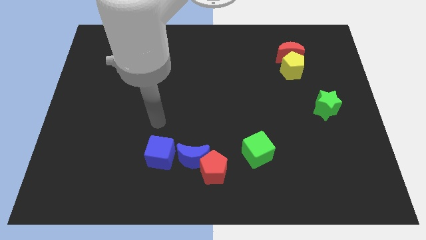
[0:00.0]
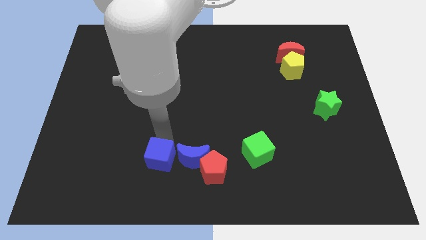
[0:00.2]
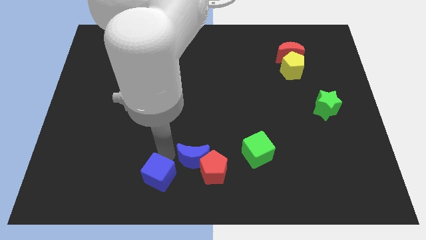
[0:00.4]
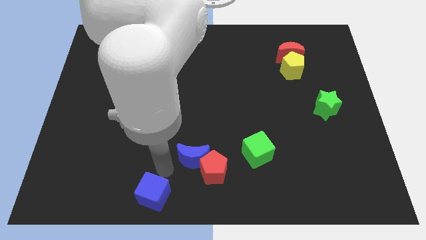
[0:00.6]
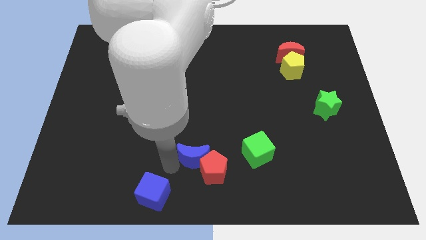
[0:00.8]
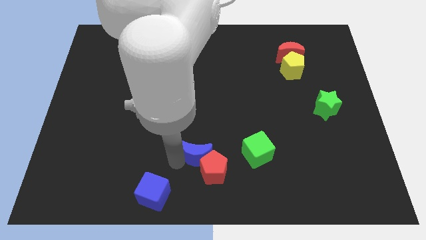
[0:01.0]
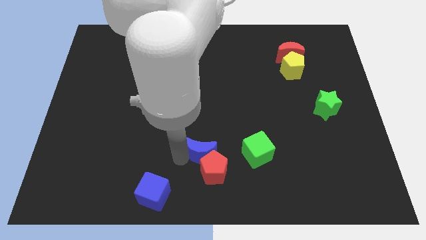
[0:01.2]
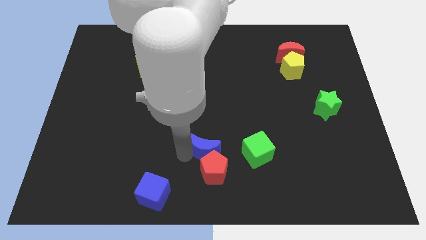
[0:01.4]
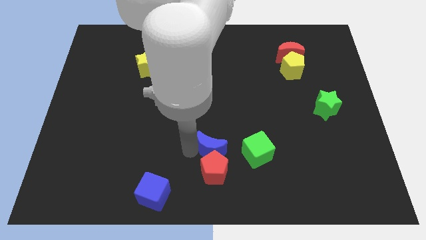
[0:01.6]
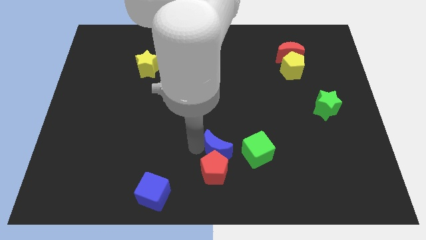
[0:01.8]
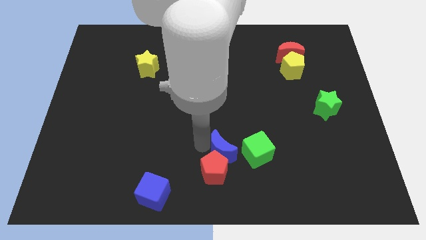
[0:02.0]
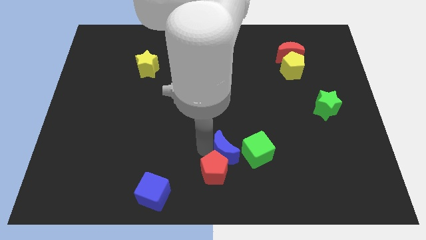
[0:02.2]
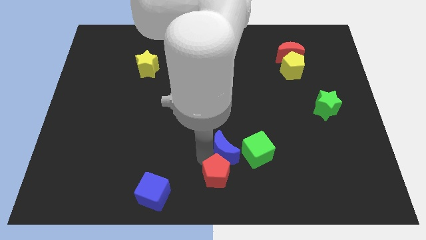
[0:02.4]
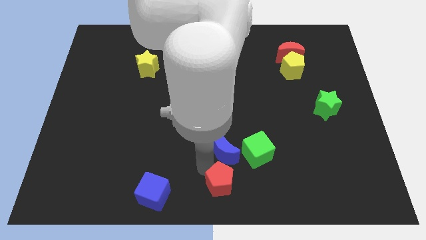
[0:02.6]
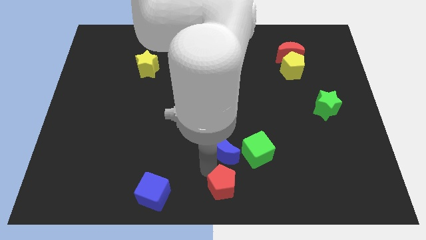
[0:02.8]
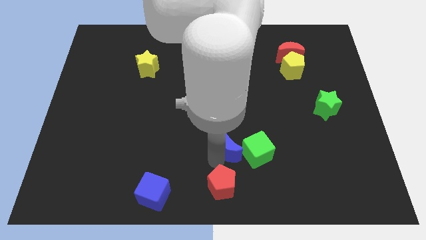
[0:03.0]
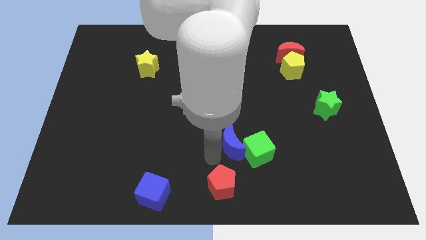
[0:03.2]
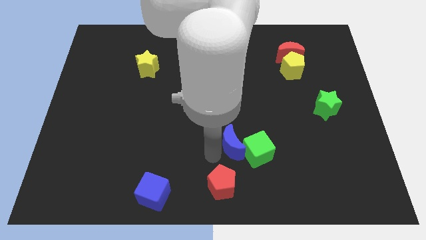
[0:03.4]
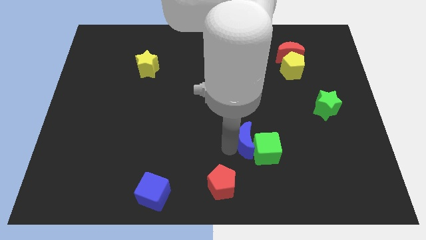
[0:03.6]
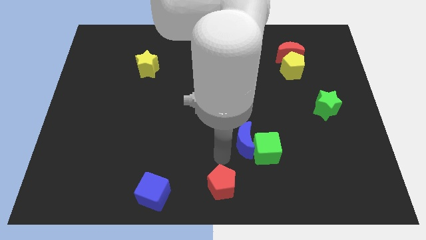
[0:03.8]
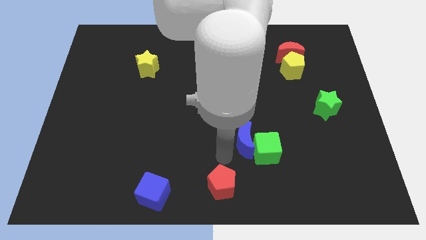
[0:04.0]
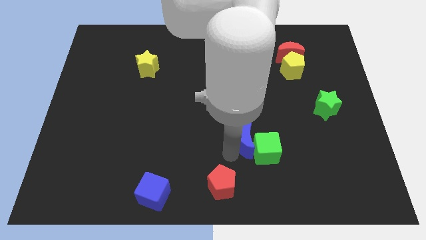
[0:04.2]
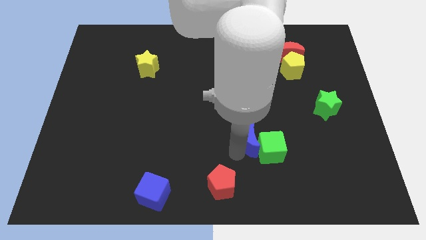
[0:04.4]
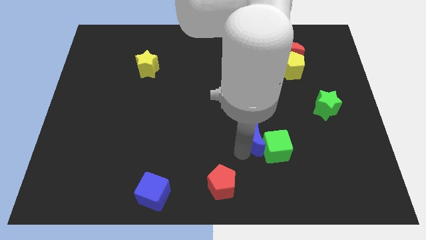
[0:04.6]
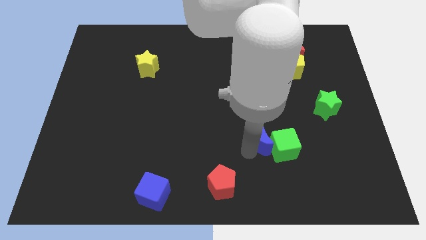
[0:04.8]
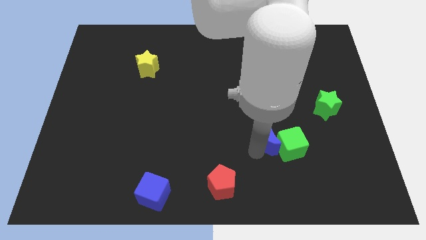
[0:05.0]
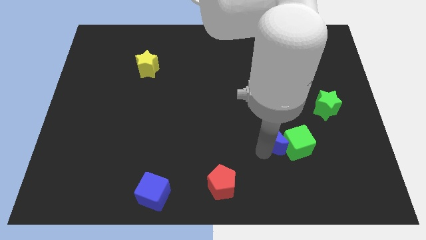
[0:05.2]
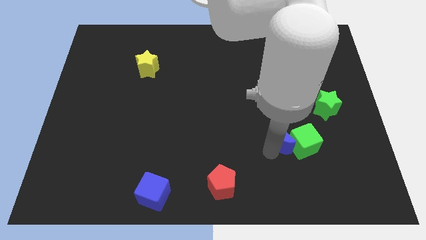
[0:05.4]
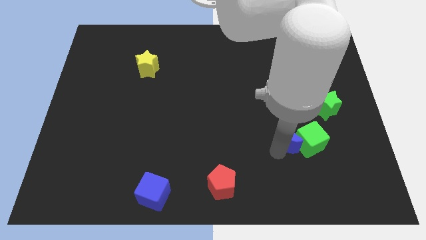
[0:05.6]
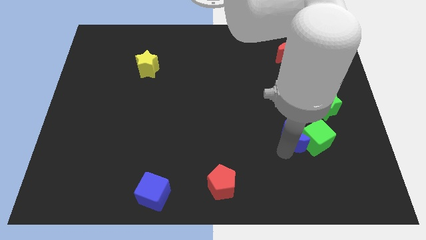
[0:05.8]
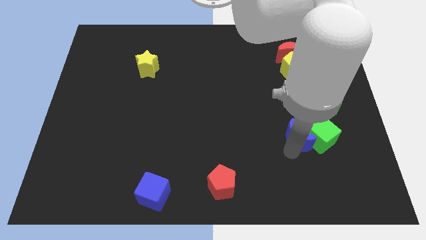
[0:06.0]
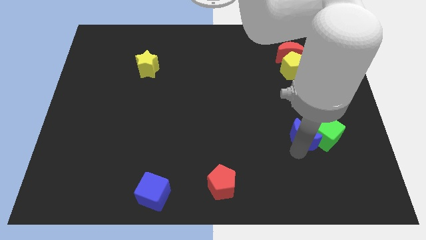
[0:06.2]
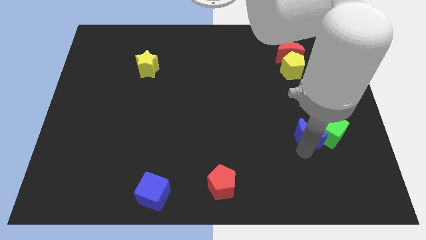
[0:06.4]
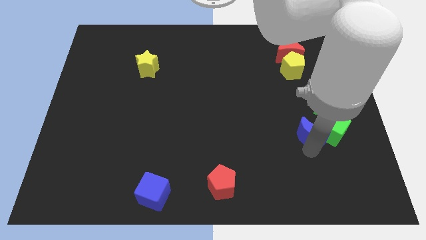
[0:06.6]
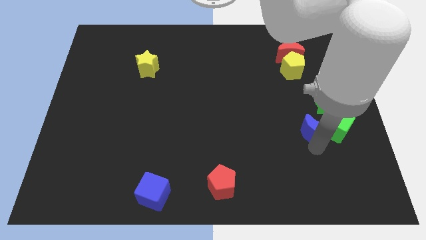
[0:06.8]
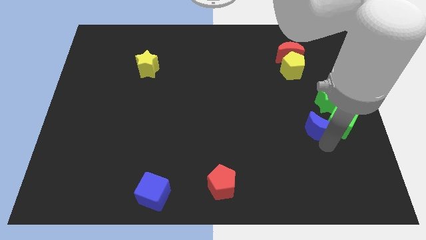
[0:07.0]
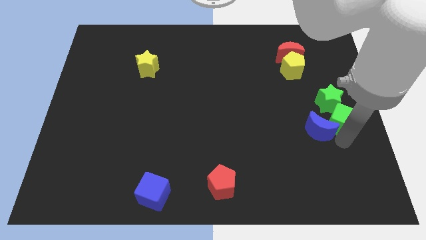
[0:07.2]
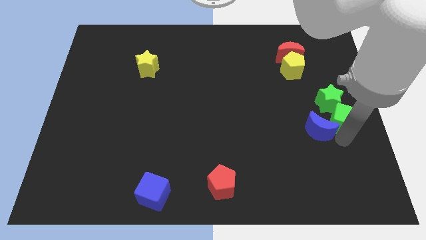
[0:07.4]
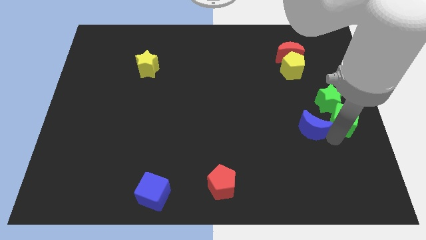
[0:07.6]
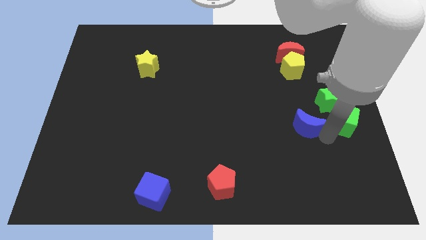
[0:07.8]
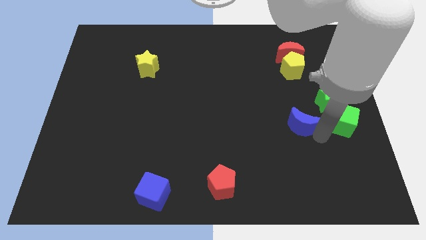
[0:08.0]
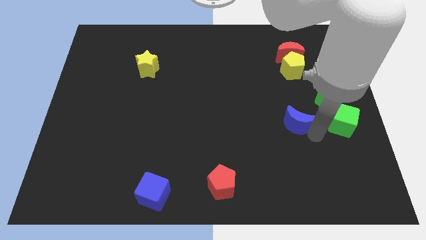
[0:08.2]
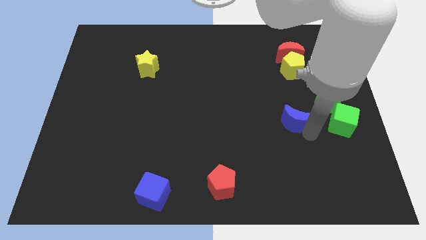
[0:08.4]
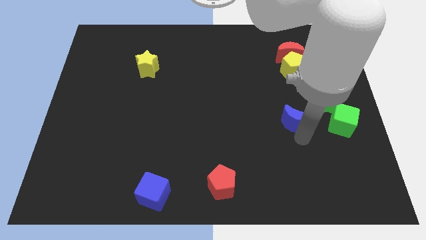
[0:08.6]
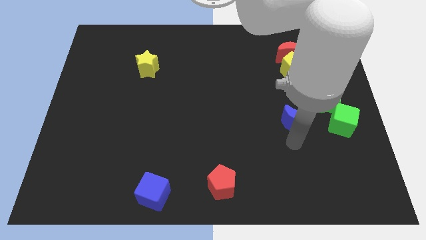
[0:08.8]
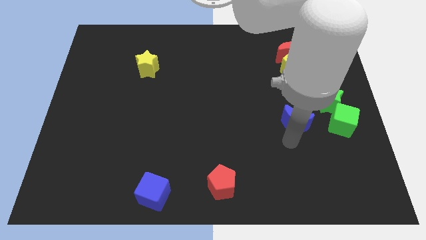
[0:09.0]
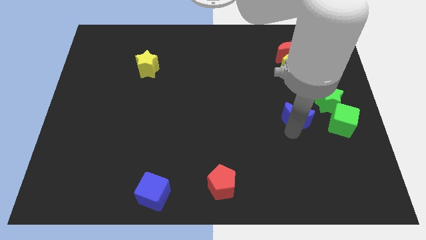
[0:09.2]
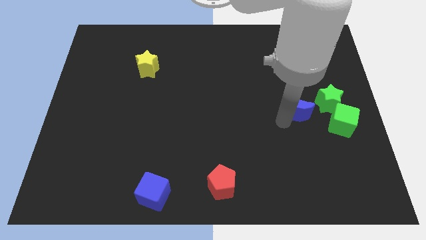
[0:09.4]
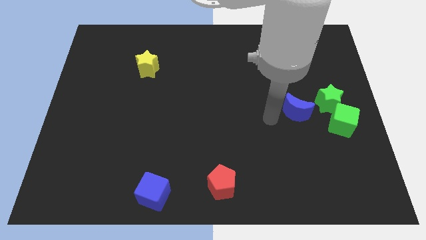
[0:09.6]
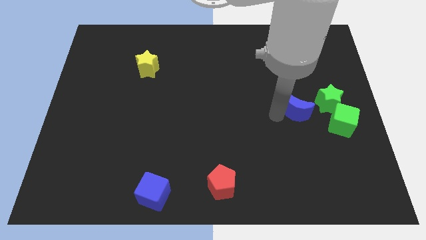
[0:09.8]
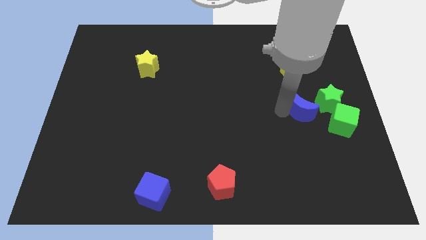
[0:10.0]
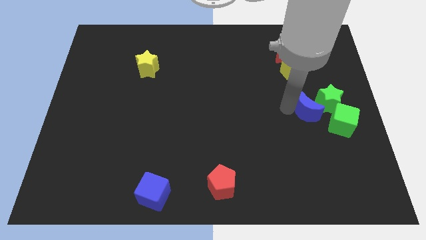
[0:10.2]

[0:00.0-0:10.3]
push the blue moon close to the green star

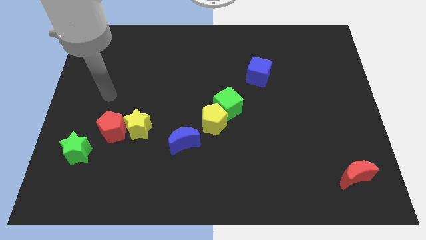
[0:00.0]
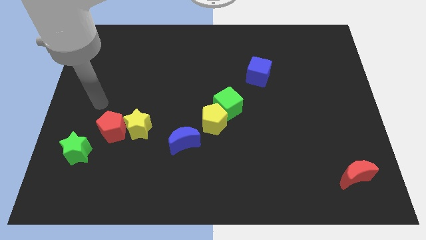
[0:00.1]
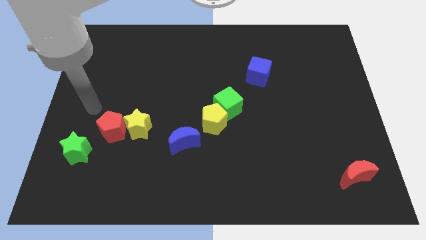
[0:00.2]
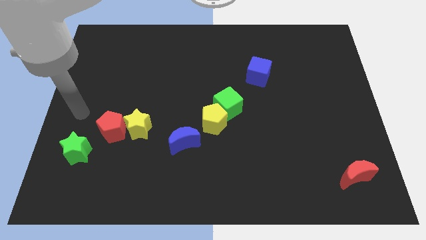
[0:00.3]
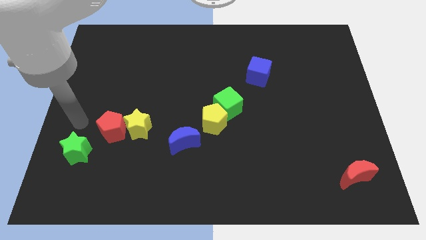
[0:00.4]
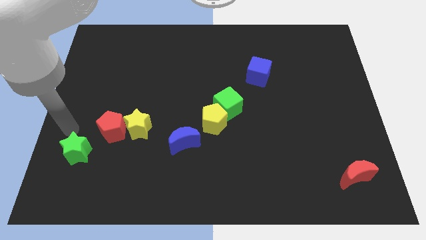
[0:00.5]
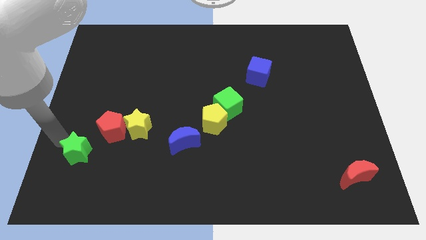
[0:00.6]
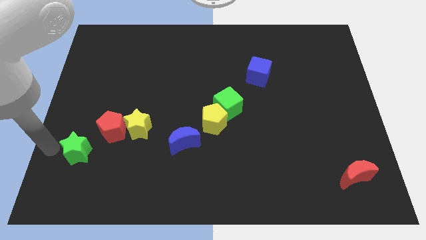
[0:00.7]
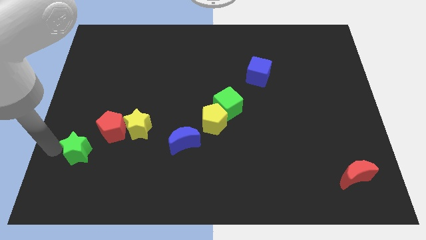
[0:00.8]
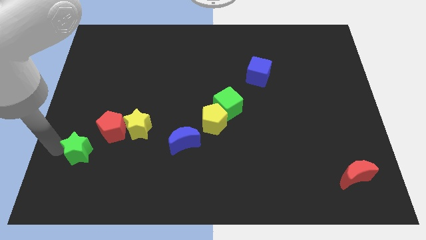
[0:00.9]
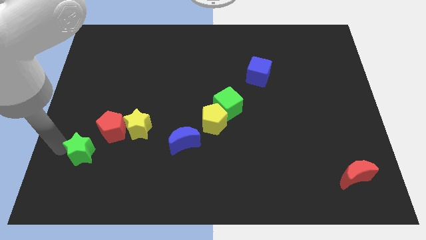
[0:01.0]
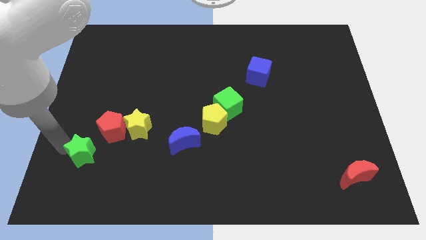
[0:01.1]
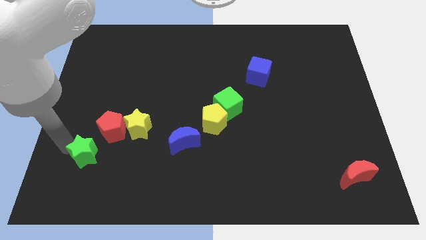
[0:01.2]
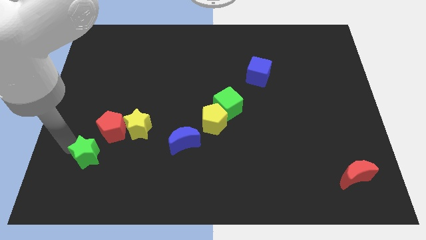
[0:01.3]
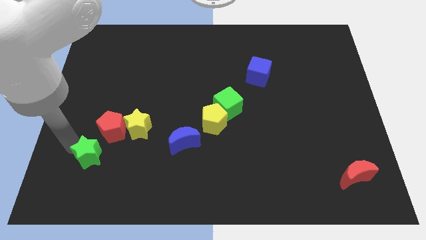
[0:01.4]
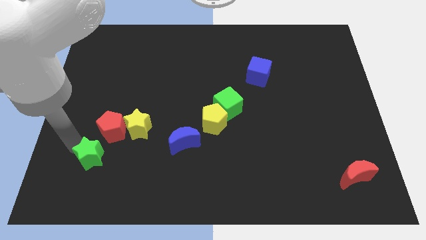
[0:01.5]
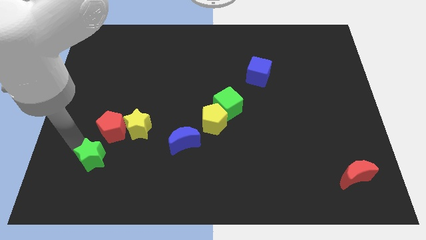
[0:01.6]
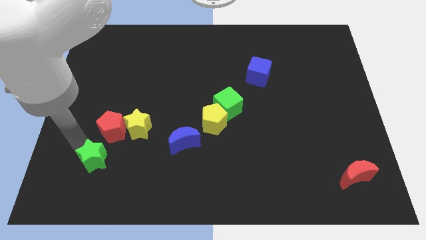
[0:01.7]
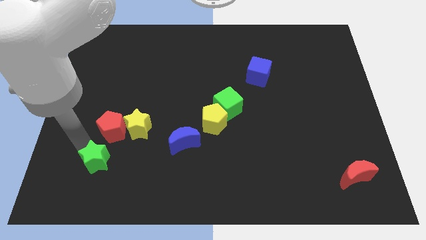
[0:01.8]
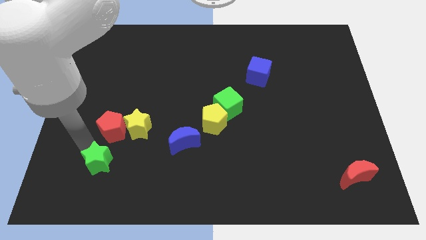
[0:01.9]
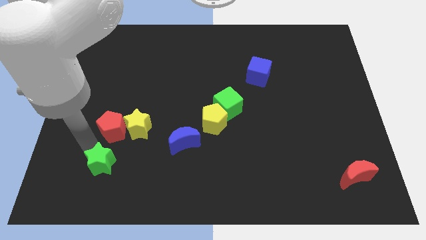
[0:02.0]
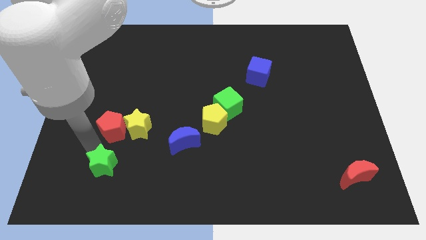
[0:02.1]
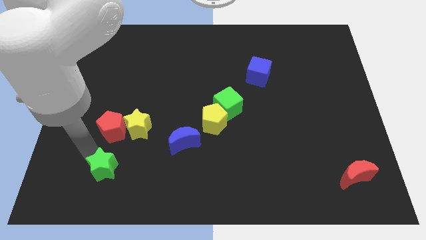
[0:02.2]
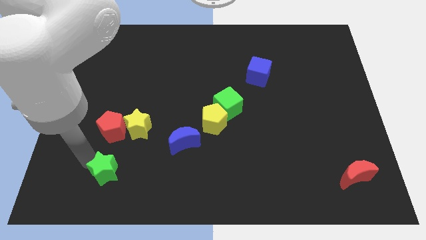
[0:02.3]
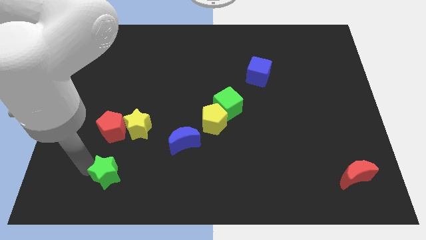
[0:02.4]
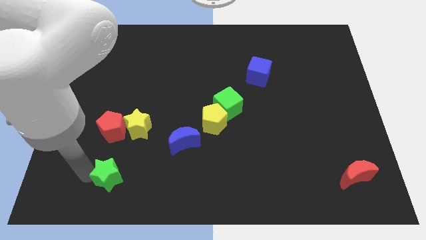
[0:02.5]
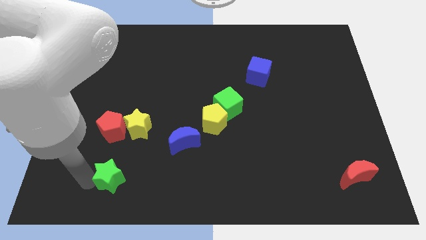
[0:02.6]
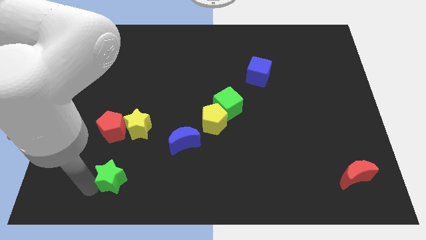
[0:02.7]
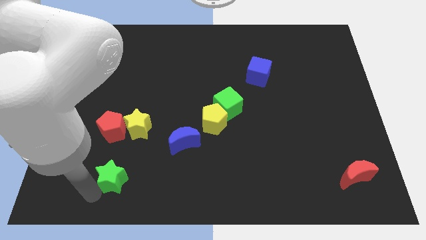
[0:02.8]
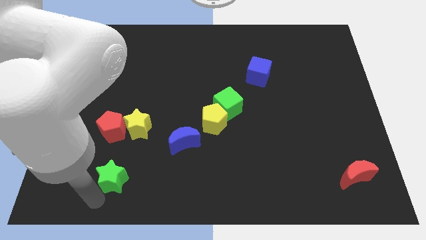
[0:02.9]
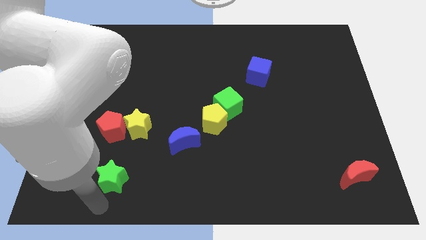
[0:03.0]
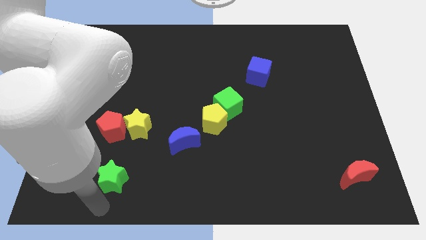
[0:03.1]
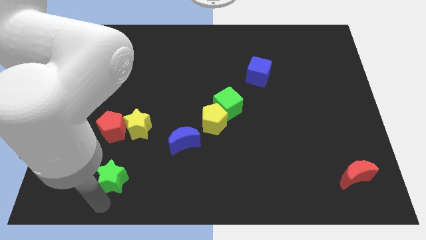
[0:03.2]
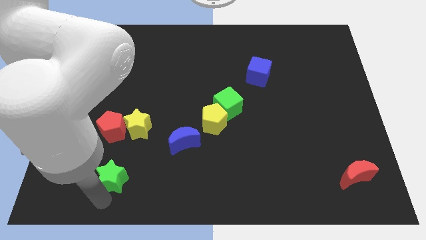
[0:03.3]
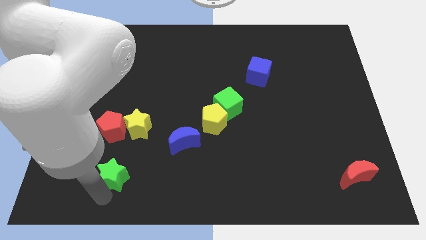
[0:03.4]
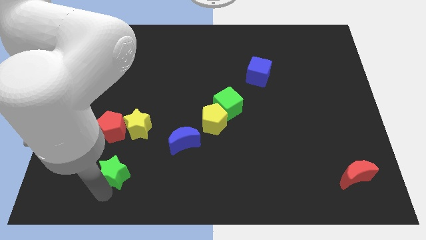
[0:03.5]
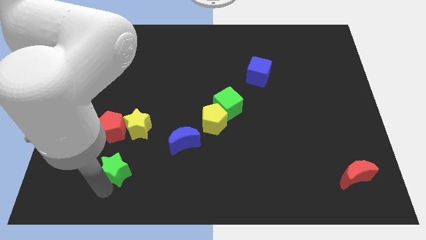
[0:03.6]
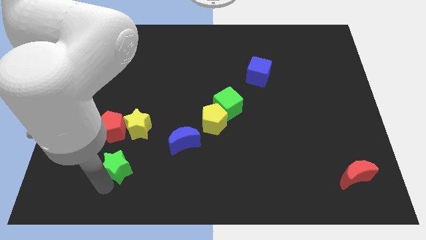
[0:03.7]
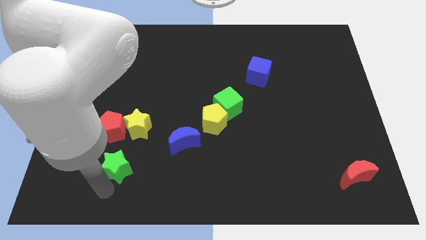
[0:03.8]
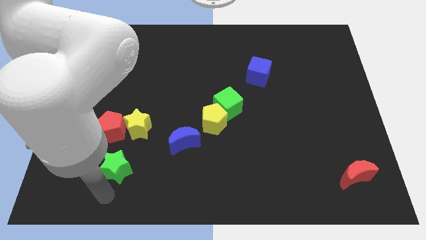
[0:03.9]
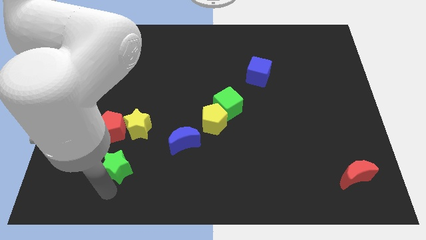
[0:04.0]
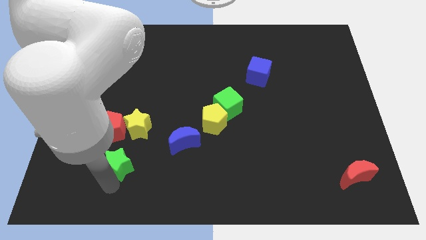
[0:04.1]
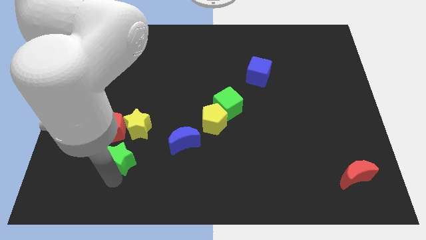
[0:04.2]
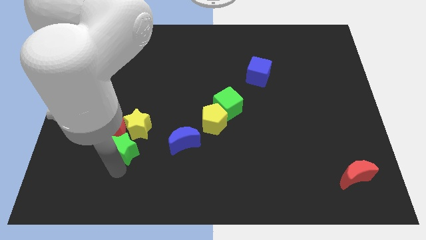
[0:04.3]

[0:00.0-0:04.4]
move the green star towards the yellow star
